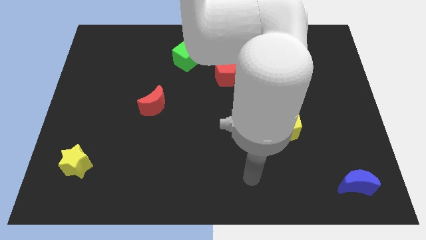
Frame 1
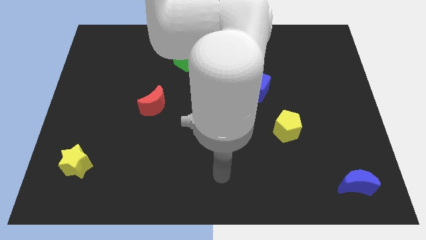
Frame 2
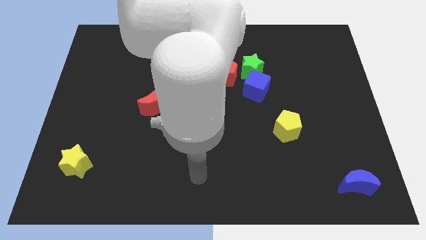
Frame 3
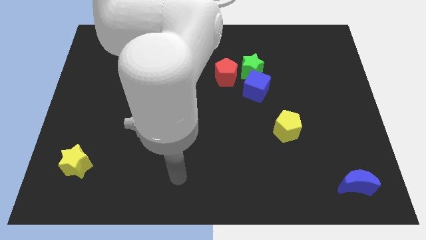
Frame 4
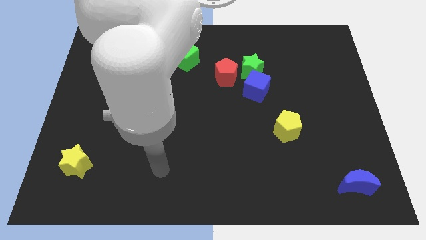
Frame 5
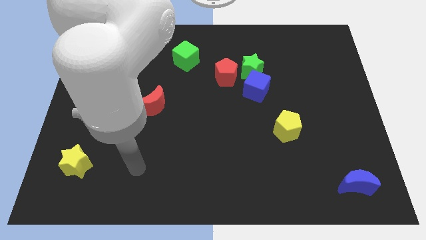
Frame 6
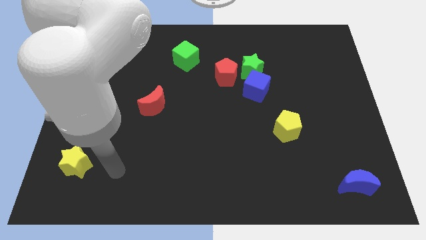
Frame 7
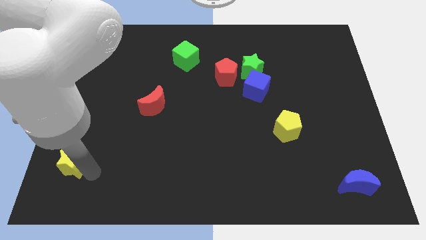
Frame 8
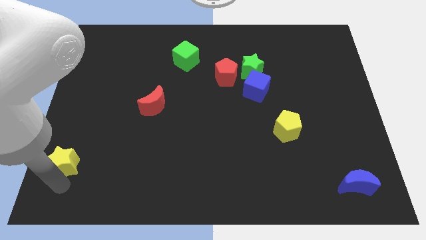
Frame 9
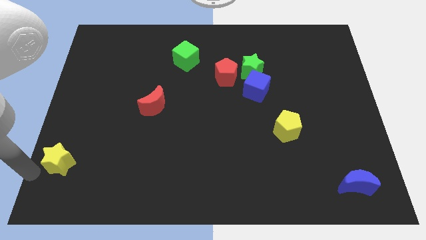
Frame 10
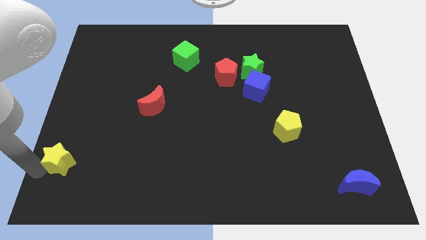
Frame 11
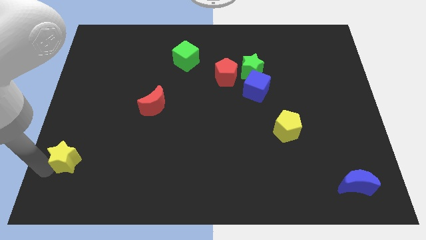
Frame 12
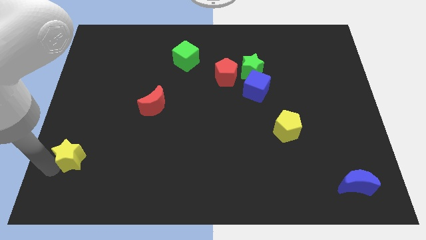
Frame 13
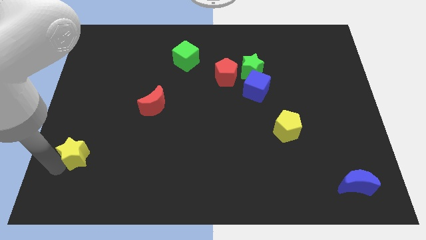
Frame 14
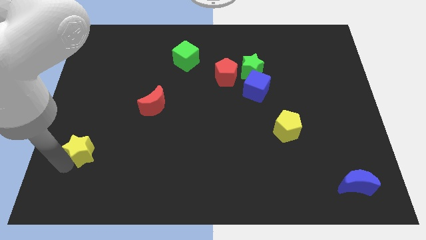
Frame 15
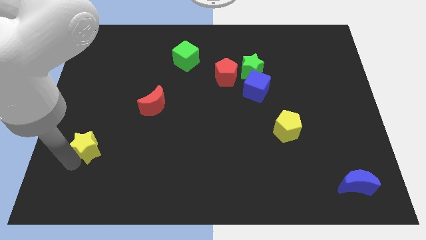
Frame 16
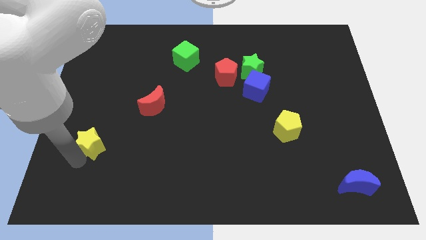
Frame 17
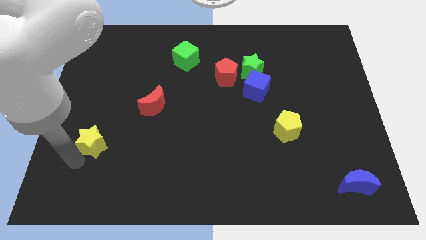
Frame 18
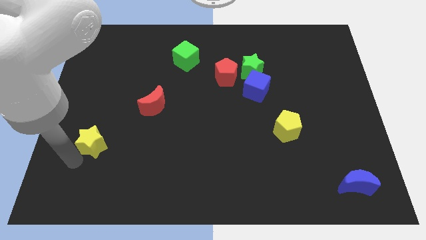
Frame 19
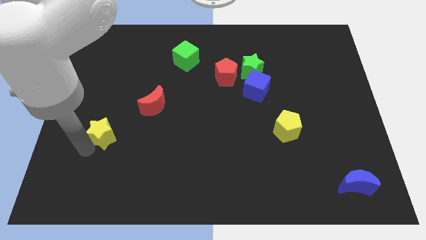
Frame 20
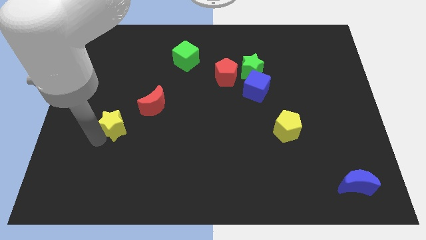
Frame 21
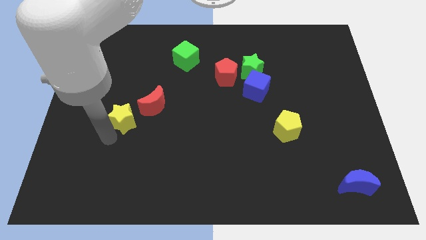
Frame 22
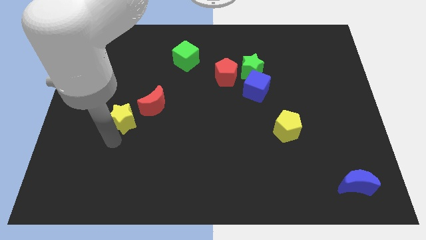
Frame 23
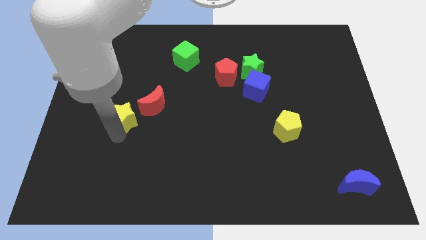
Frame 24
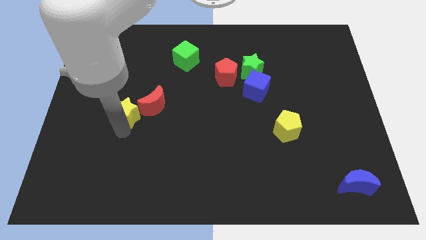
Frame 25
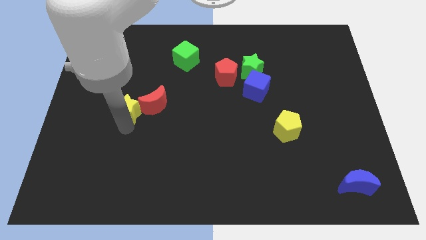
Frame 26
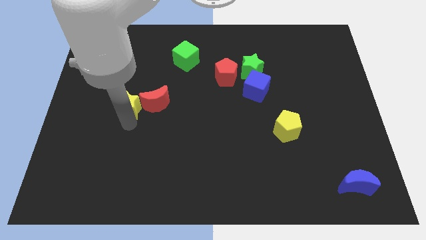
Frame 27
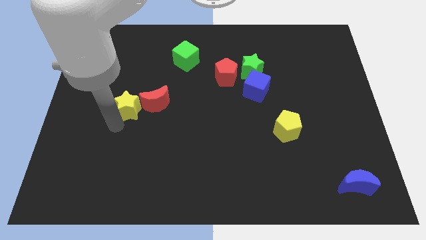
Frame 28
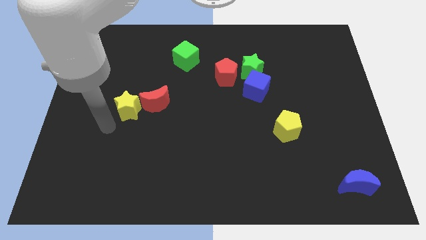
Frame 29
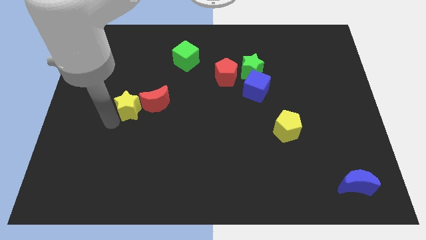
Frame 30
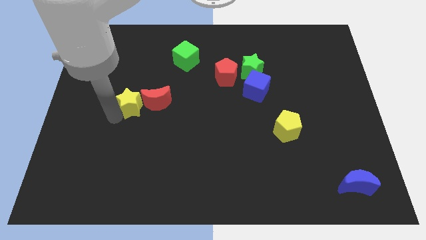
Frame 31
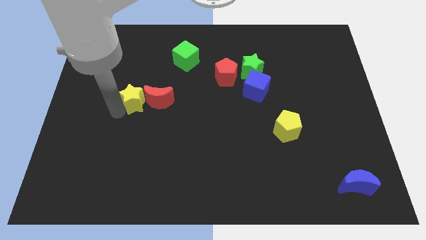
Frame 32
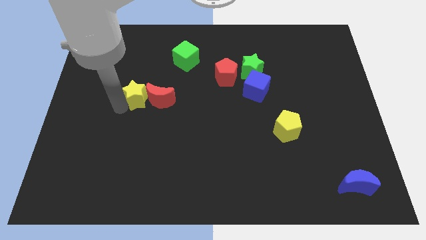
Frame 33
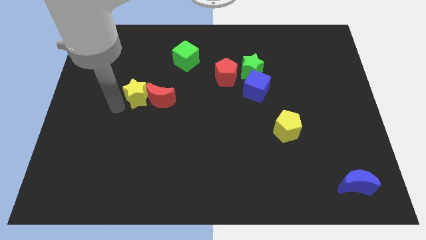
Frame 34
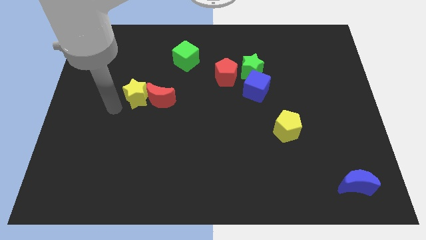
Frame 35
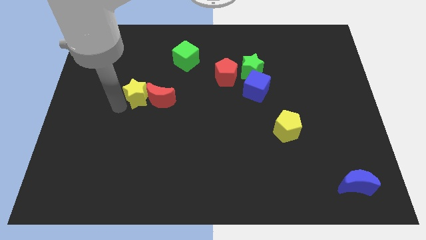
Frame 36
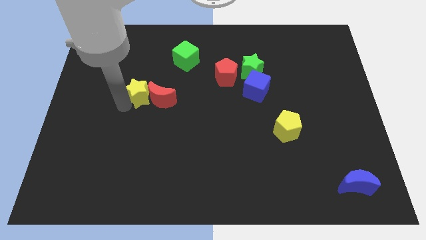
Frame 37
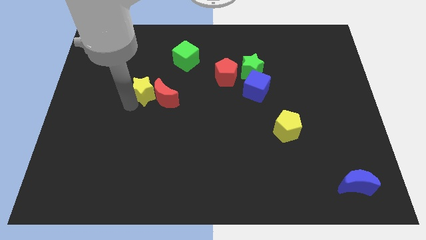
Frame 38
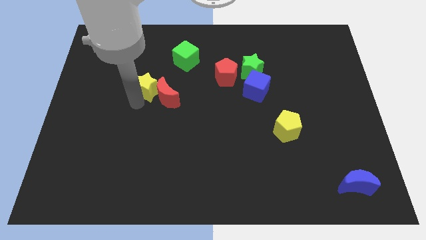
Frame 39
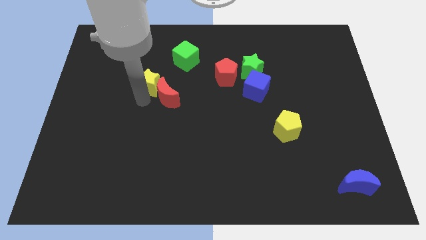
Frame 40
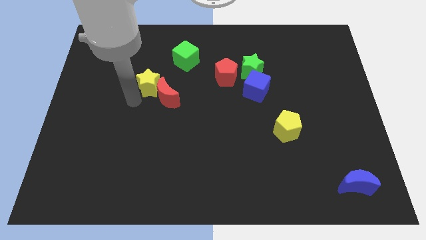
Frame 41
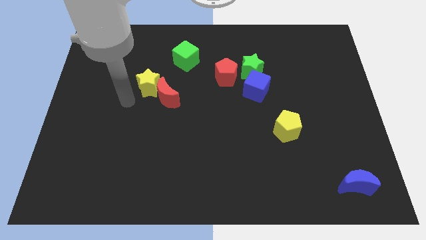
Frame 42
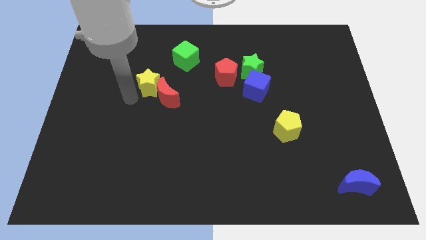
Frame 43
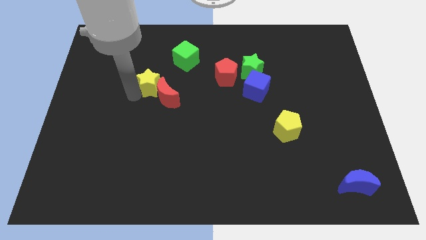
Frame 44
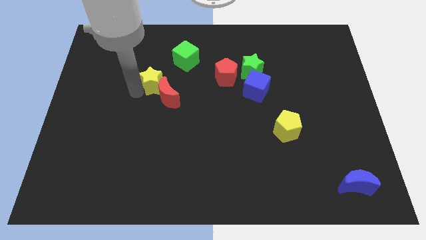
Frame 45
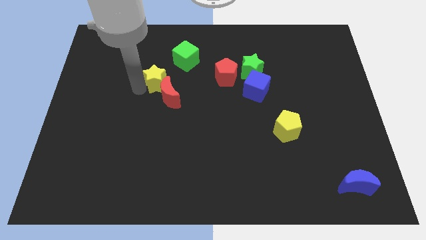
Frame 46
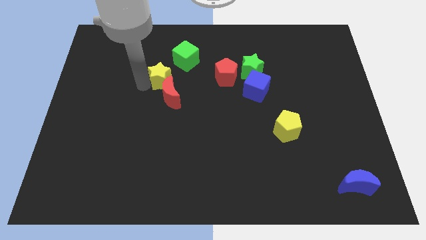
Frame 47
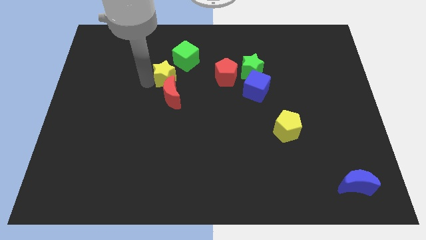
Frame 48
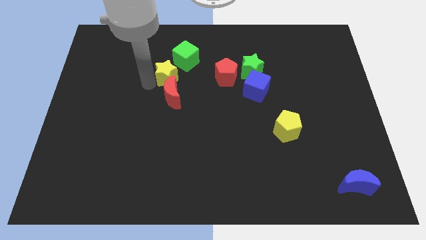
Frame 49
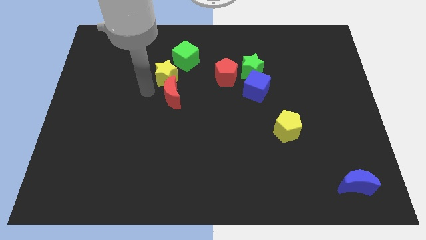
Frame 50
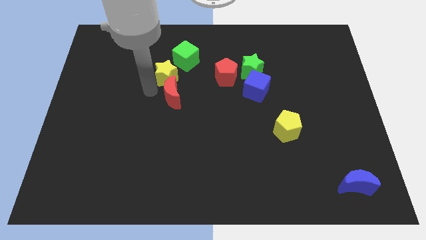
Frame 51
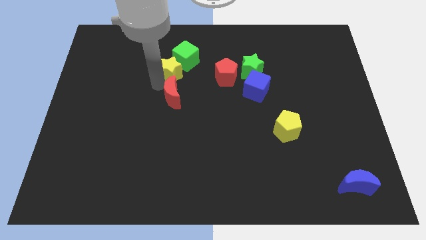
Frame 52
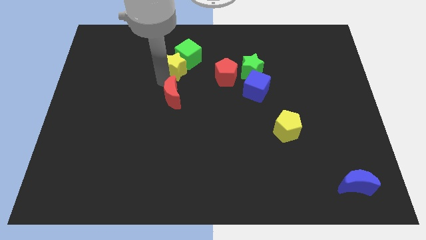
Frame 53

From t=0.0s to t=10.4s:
slide the yellow star next to the green cube

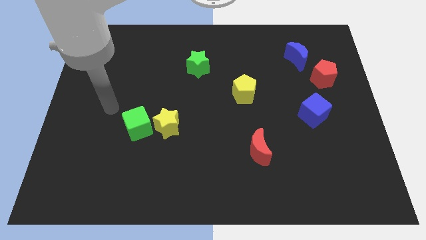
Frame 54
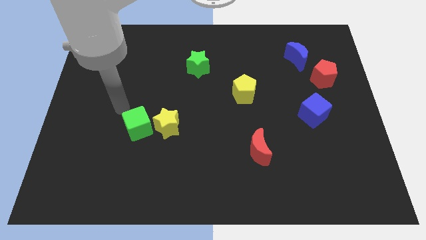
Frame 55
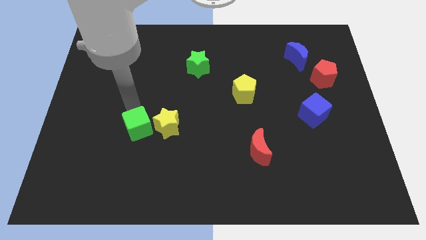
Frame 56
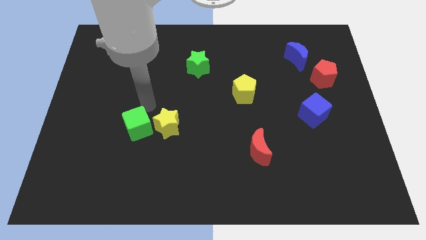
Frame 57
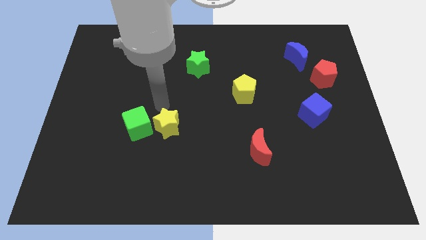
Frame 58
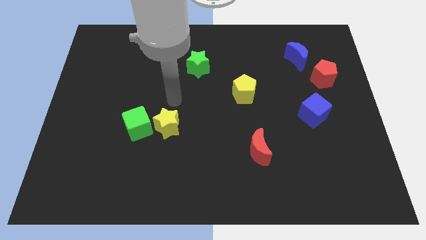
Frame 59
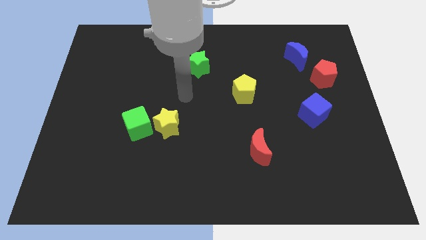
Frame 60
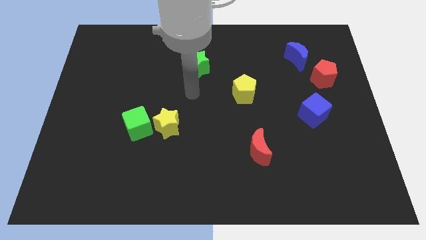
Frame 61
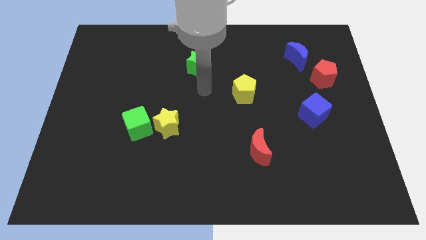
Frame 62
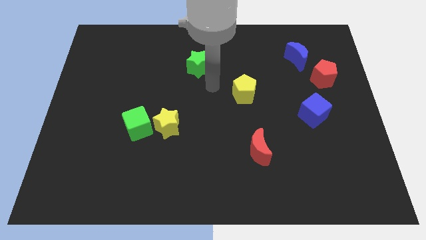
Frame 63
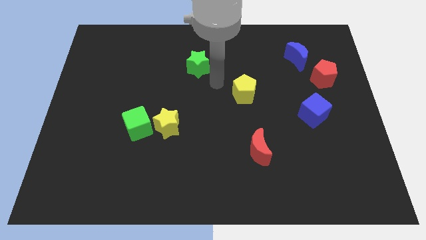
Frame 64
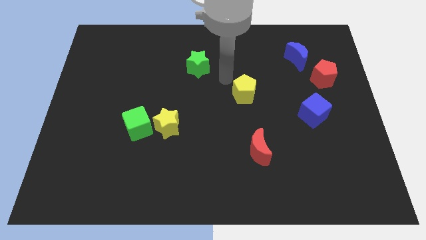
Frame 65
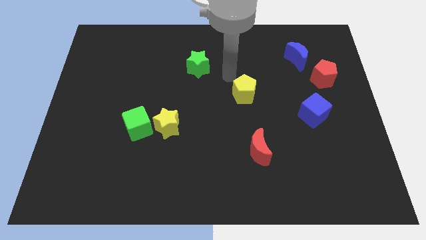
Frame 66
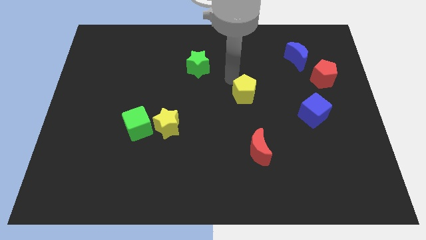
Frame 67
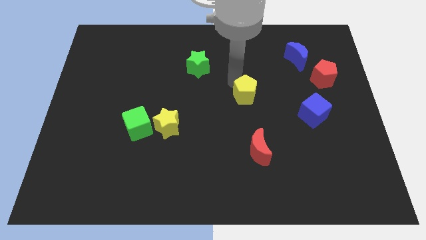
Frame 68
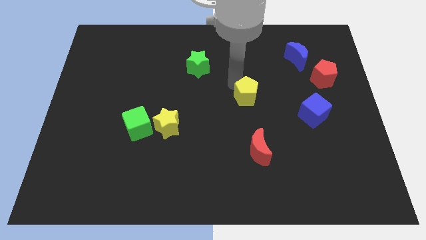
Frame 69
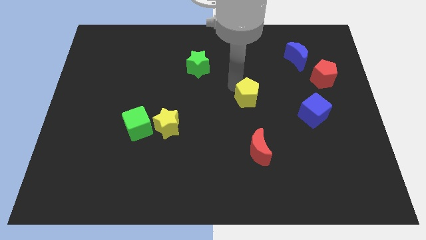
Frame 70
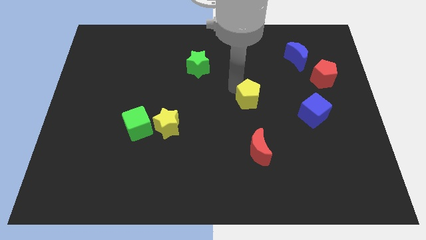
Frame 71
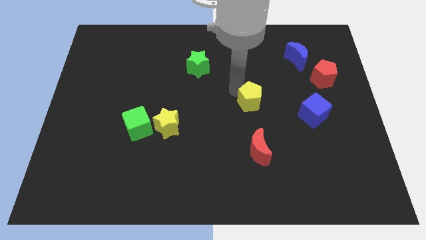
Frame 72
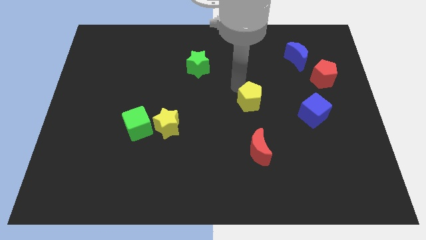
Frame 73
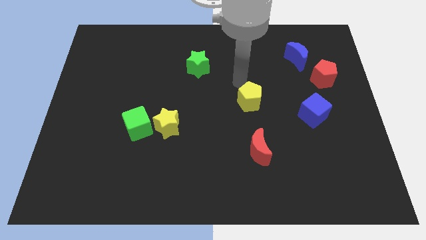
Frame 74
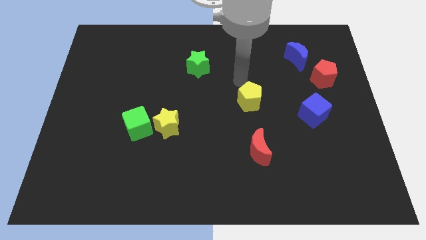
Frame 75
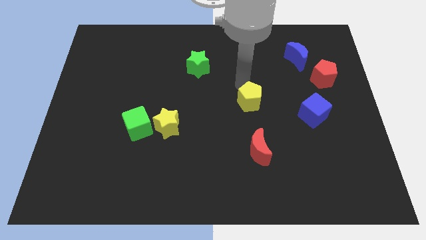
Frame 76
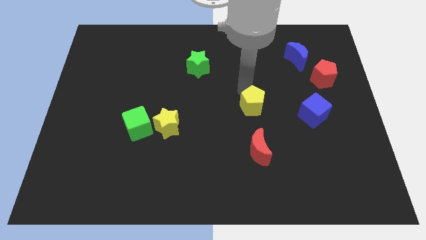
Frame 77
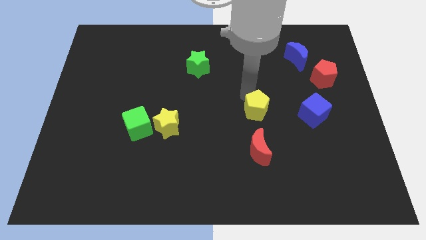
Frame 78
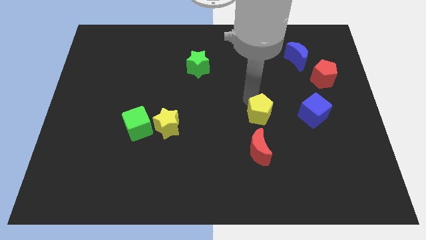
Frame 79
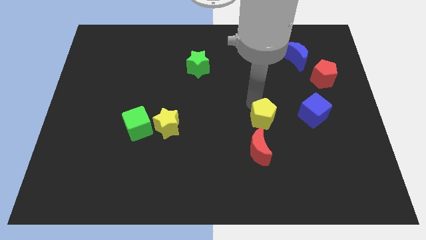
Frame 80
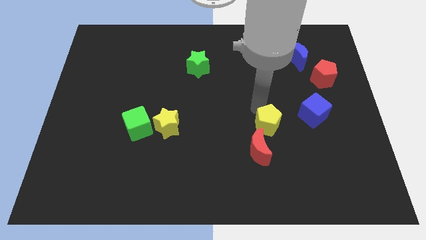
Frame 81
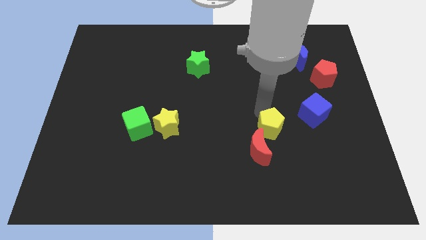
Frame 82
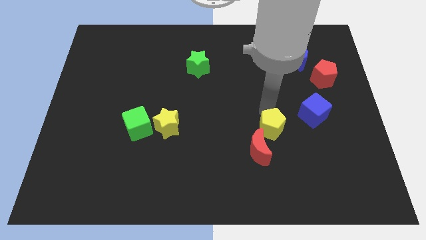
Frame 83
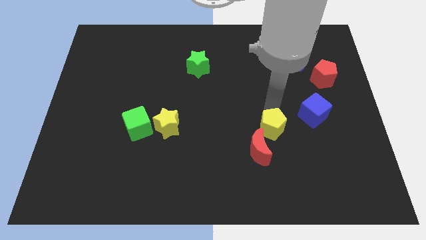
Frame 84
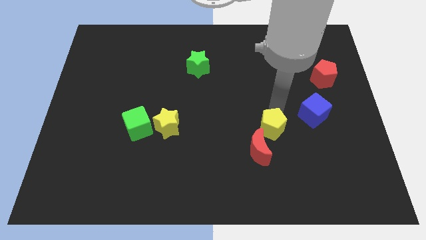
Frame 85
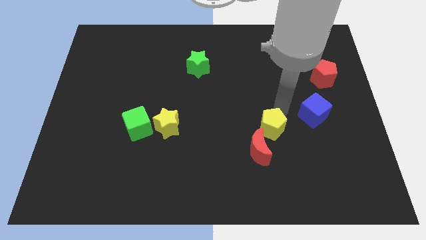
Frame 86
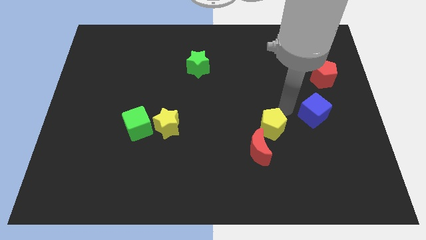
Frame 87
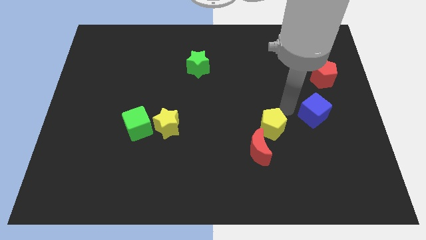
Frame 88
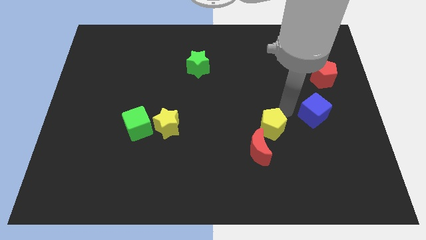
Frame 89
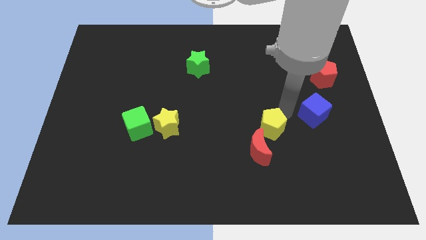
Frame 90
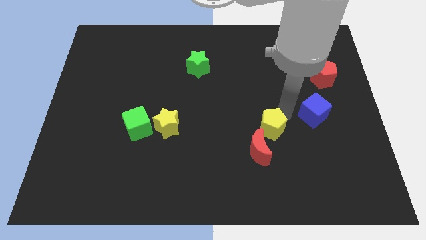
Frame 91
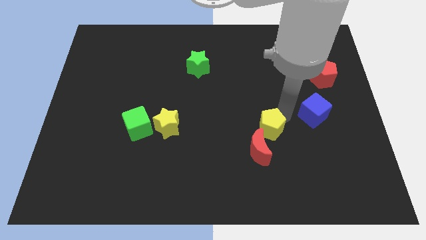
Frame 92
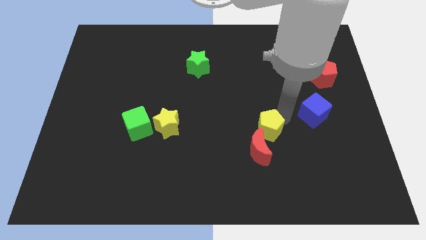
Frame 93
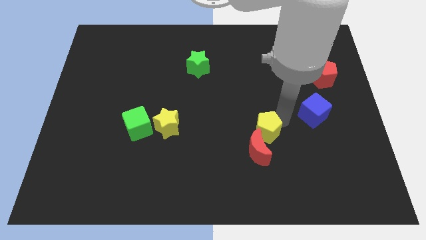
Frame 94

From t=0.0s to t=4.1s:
slide the yellow pentagon close to the red moon
